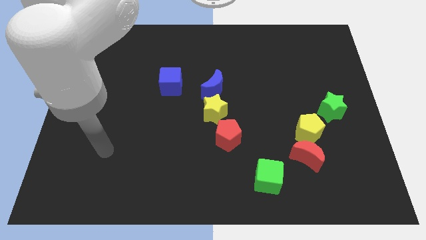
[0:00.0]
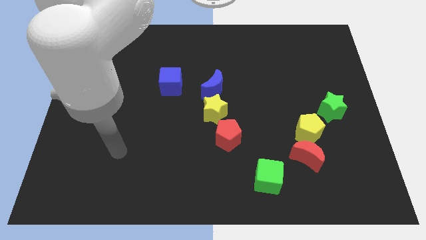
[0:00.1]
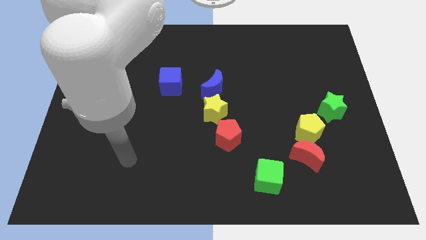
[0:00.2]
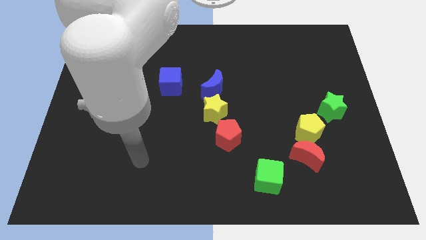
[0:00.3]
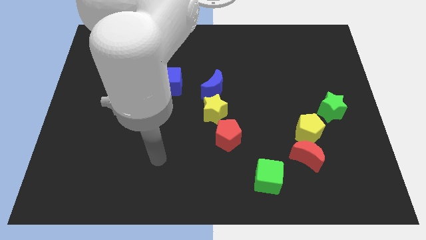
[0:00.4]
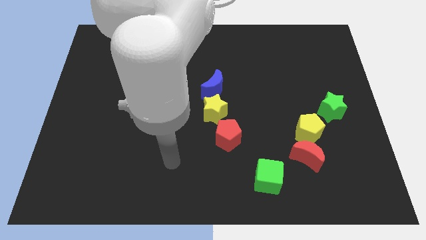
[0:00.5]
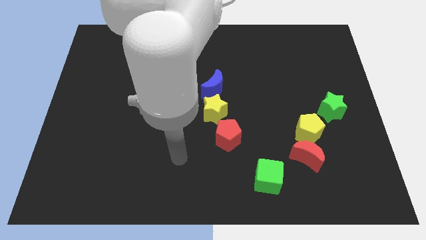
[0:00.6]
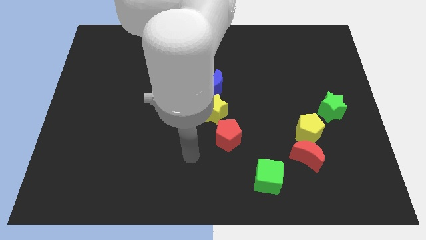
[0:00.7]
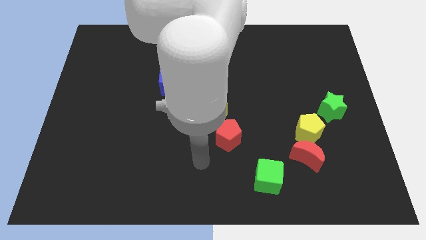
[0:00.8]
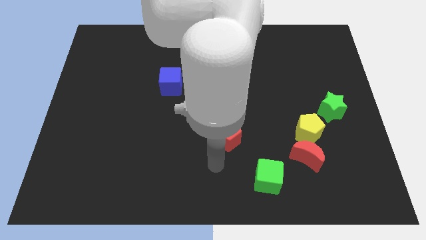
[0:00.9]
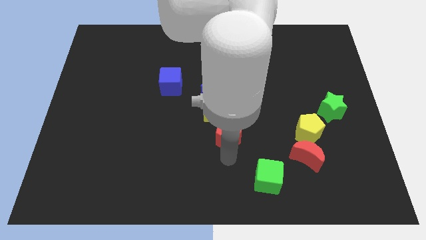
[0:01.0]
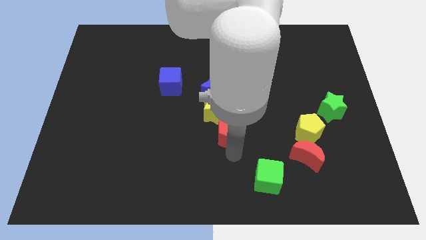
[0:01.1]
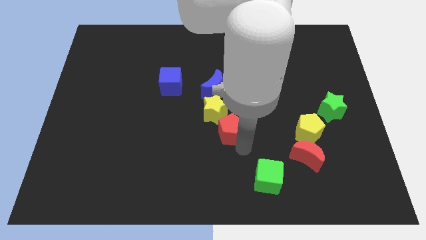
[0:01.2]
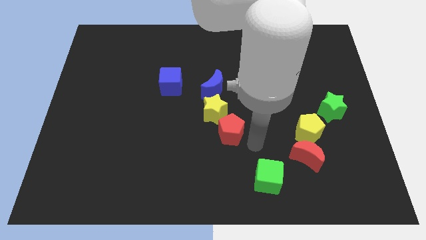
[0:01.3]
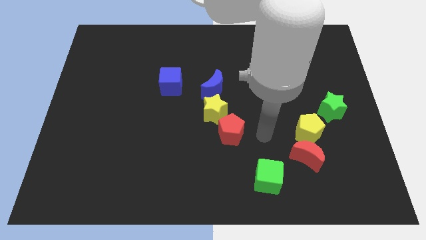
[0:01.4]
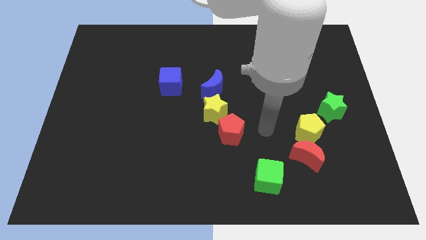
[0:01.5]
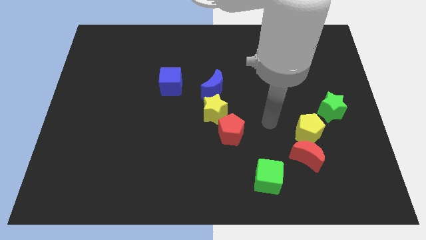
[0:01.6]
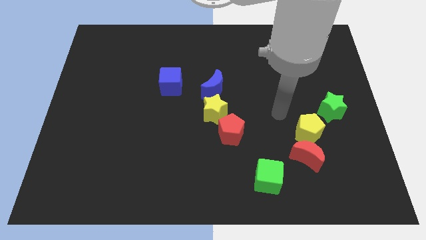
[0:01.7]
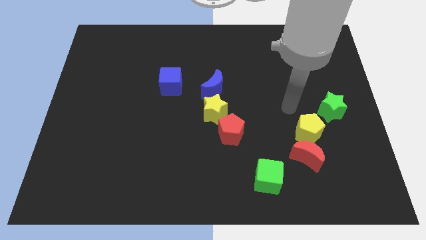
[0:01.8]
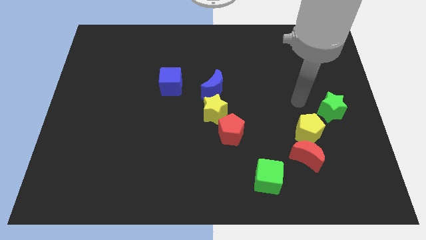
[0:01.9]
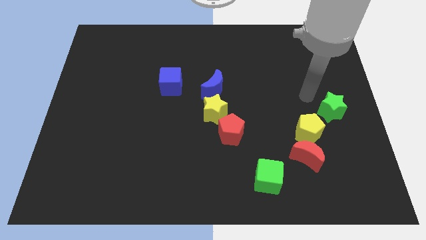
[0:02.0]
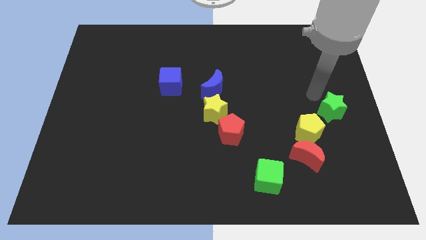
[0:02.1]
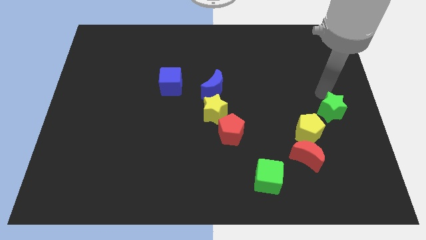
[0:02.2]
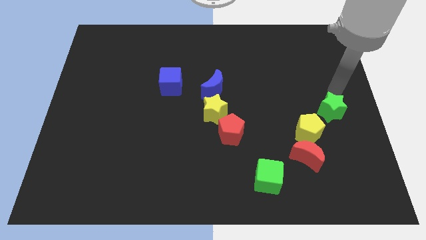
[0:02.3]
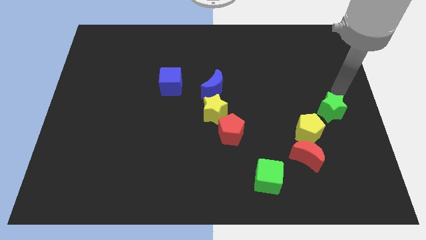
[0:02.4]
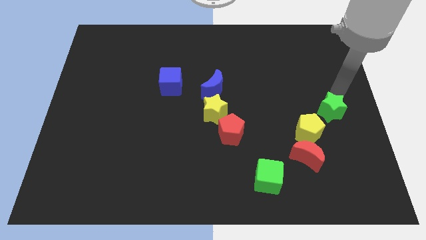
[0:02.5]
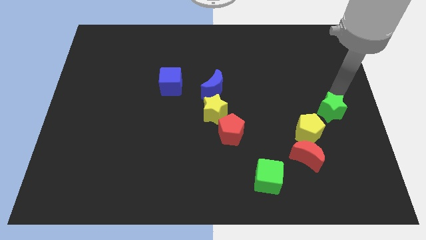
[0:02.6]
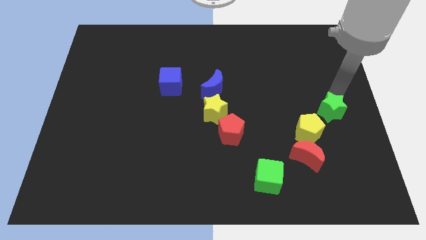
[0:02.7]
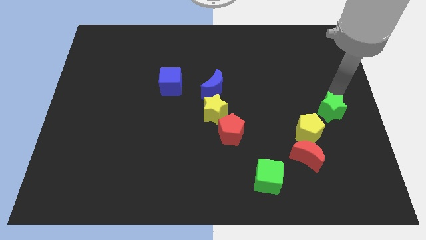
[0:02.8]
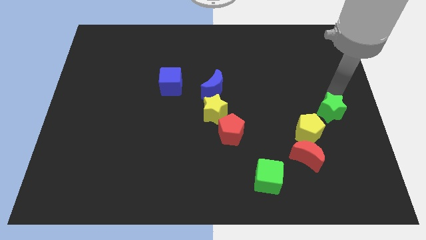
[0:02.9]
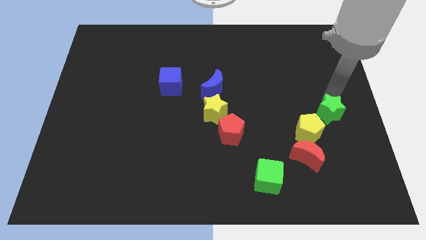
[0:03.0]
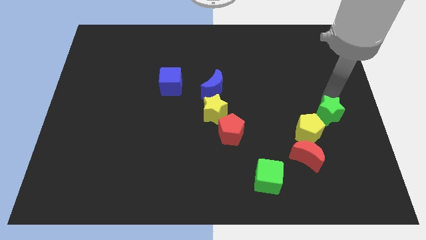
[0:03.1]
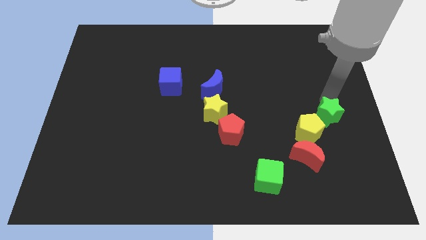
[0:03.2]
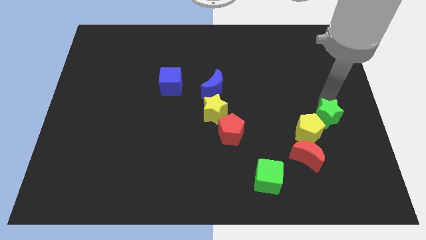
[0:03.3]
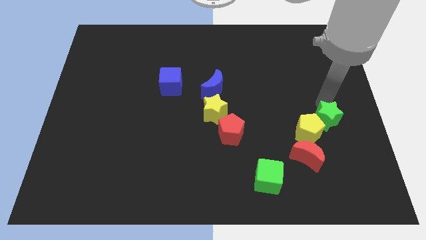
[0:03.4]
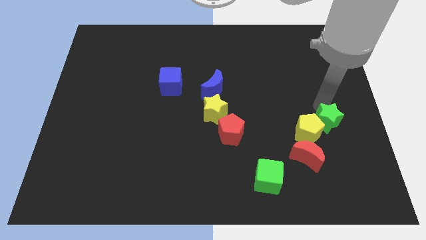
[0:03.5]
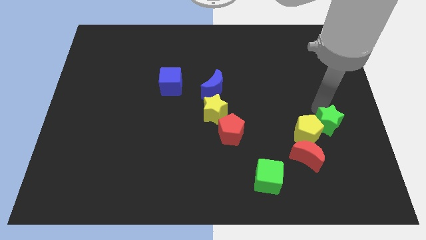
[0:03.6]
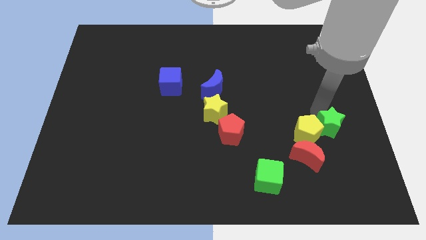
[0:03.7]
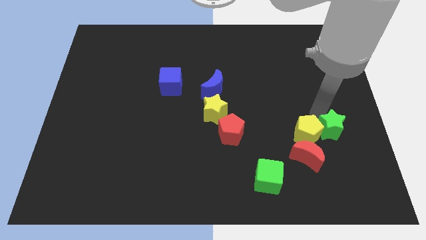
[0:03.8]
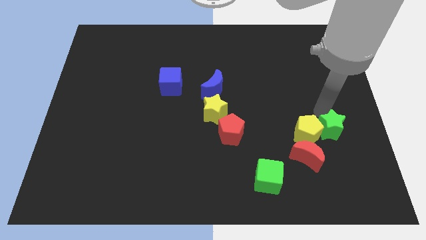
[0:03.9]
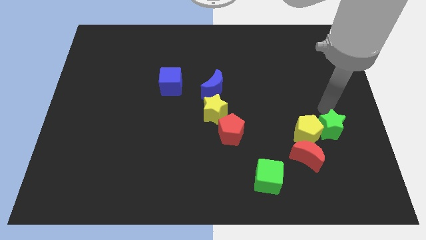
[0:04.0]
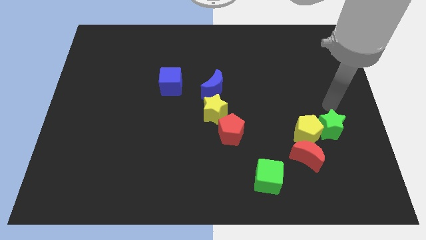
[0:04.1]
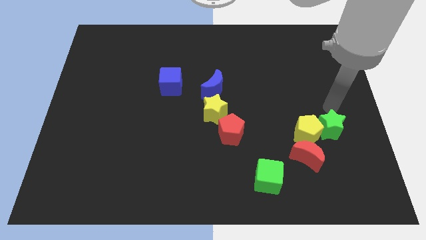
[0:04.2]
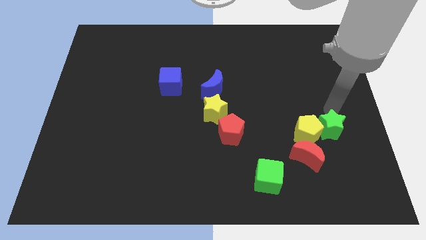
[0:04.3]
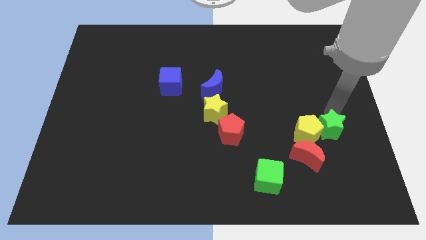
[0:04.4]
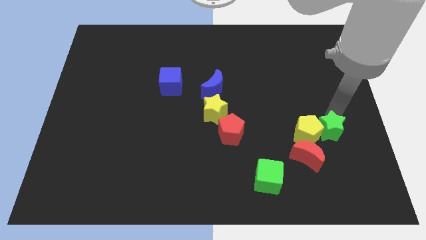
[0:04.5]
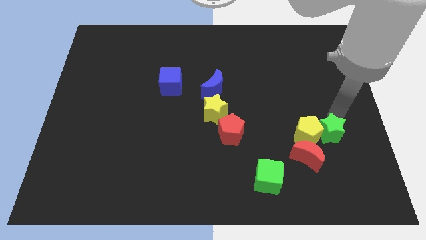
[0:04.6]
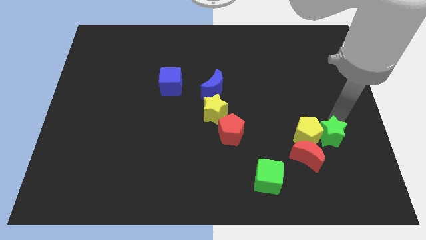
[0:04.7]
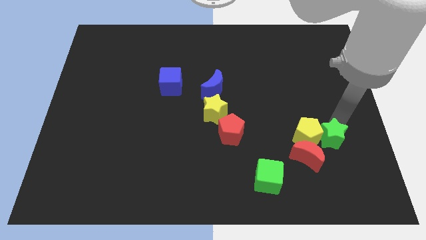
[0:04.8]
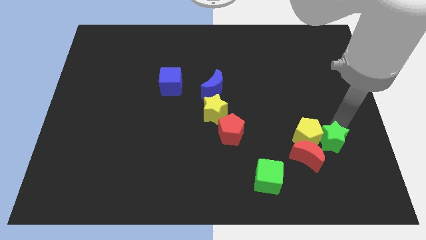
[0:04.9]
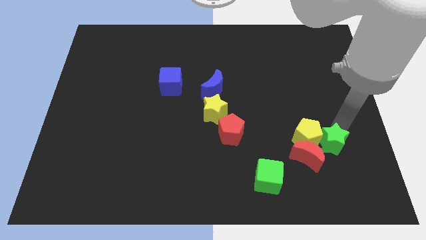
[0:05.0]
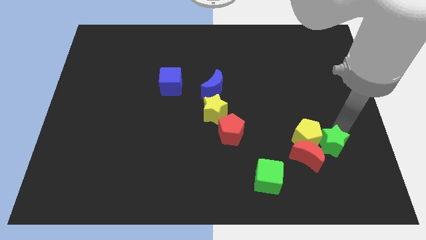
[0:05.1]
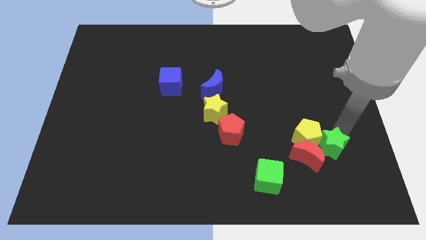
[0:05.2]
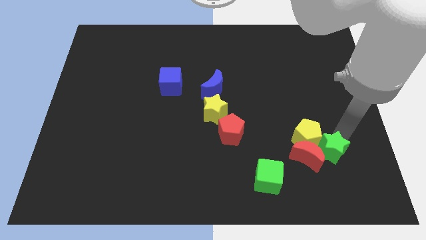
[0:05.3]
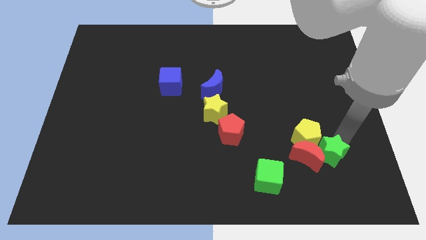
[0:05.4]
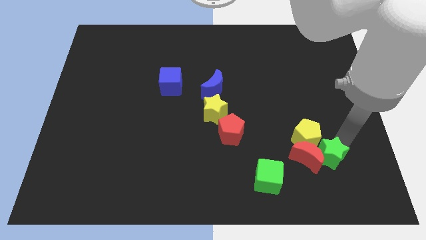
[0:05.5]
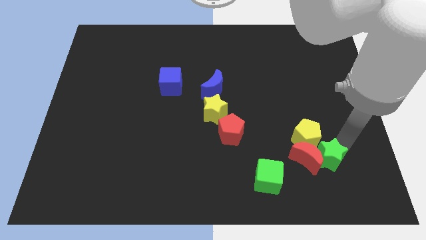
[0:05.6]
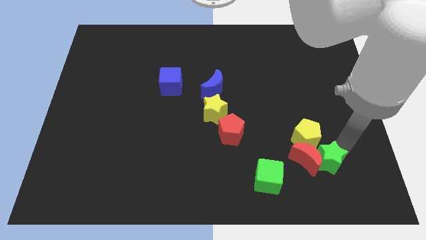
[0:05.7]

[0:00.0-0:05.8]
put the green star just right of the green cube
